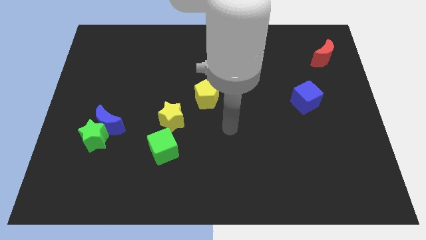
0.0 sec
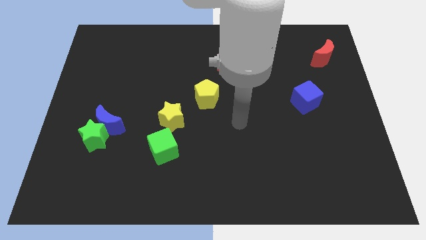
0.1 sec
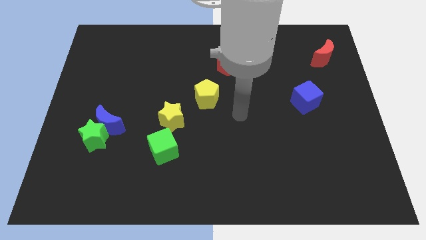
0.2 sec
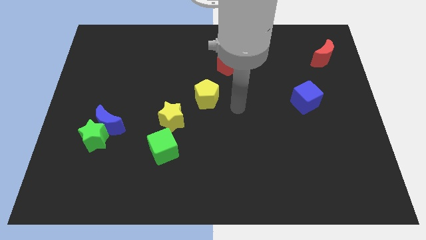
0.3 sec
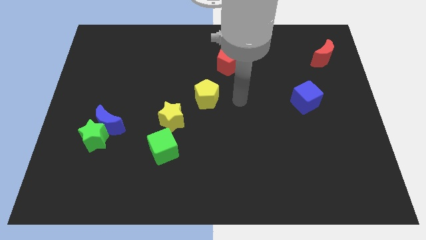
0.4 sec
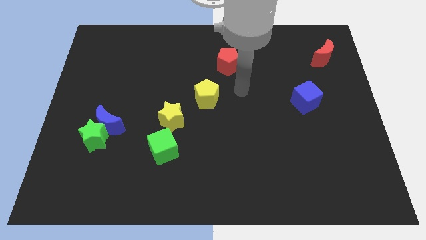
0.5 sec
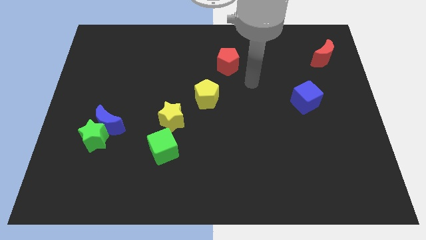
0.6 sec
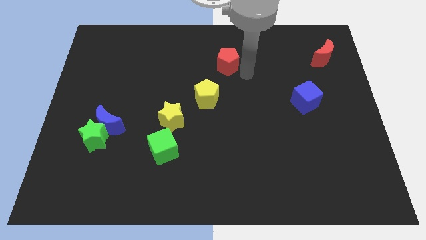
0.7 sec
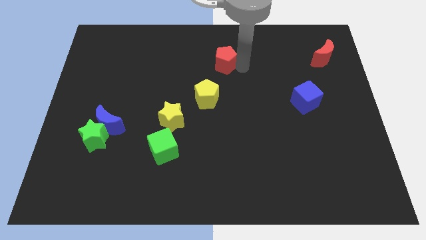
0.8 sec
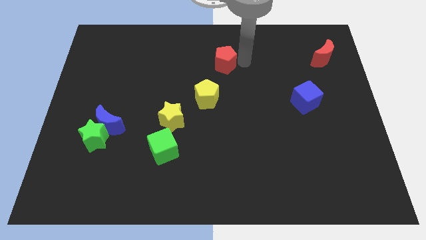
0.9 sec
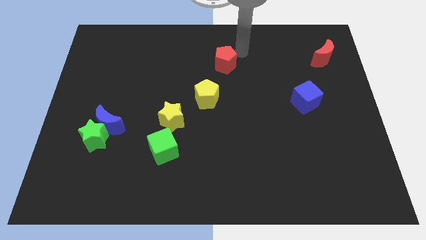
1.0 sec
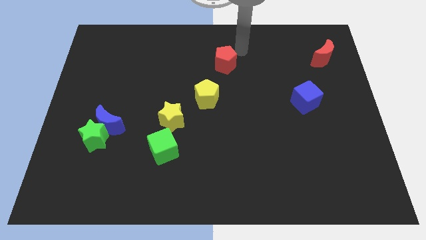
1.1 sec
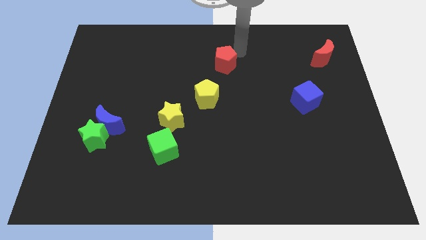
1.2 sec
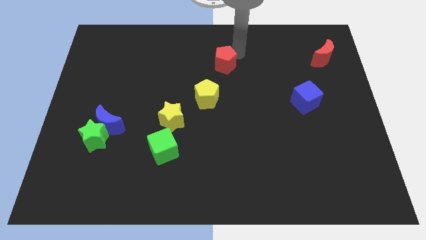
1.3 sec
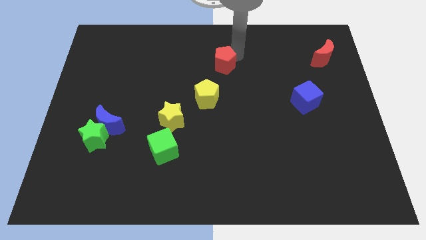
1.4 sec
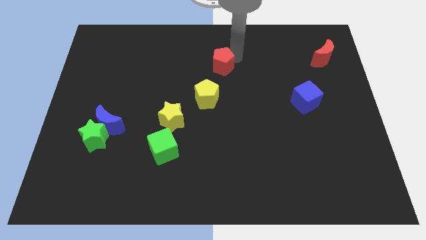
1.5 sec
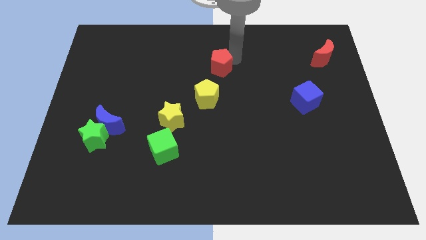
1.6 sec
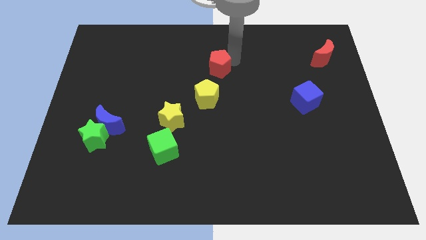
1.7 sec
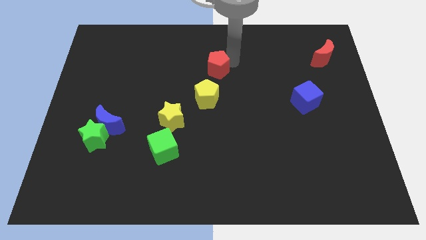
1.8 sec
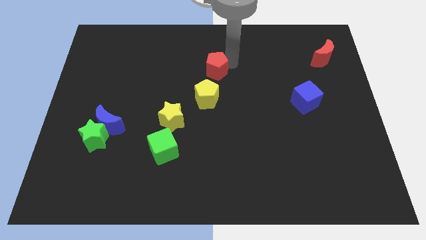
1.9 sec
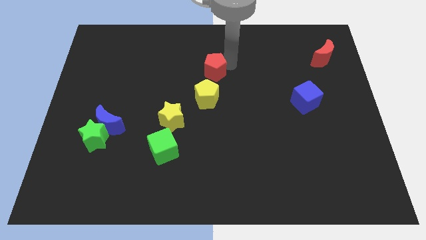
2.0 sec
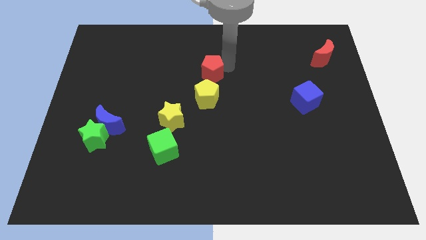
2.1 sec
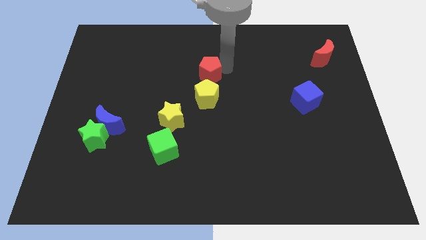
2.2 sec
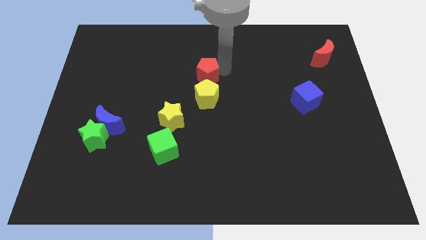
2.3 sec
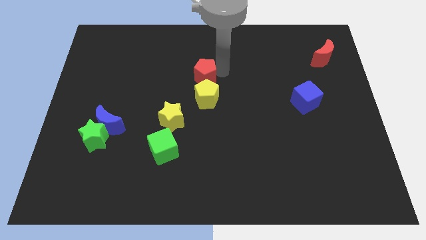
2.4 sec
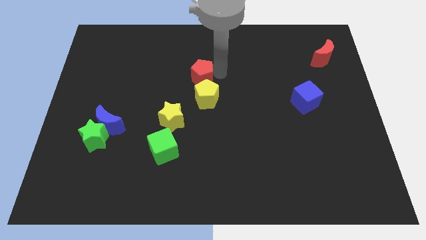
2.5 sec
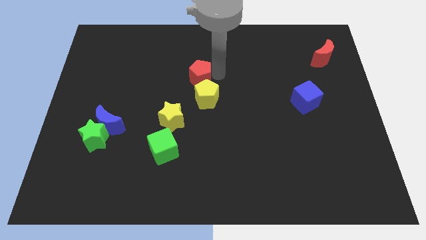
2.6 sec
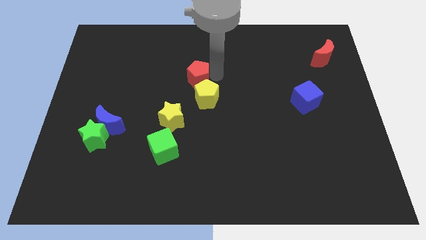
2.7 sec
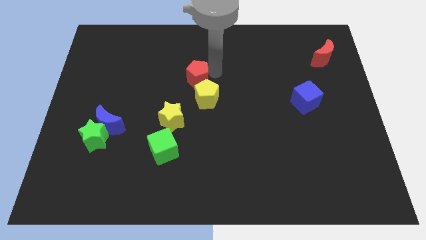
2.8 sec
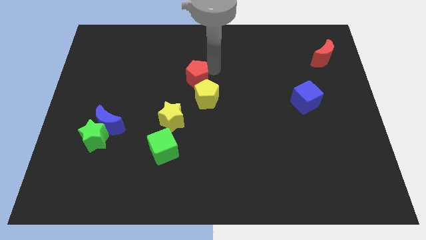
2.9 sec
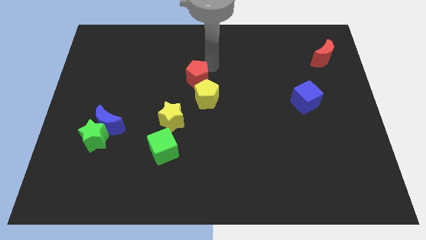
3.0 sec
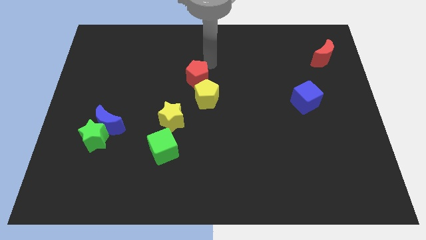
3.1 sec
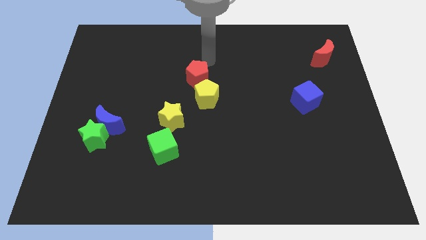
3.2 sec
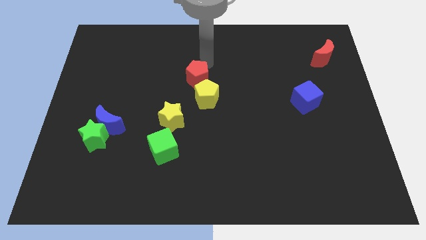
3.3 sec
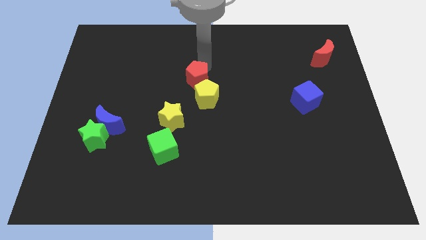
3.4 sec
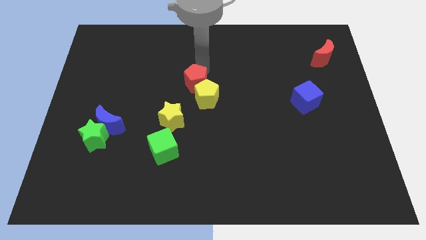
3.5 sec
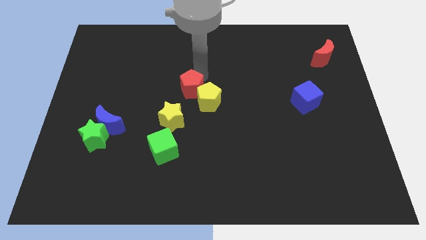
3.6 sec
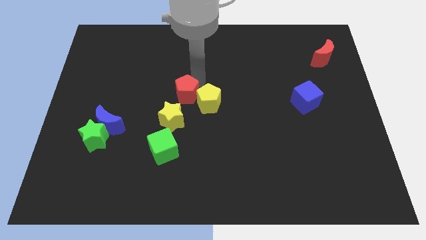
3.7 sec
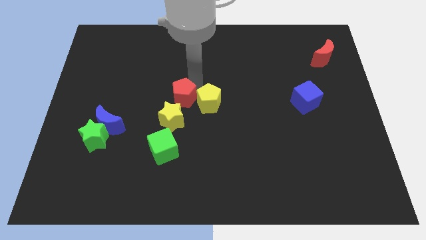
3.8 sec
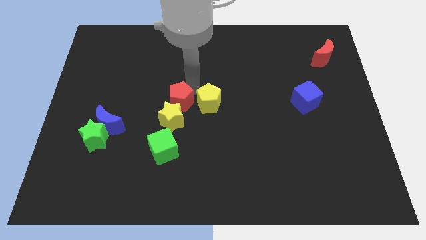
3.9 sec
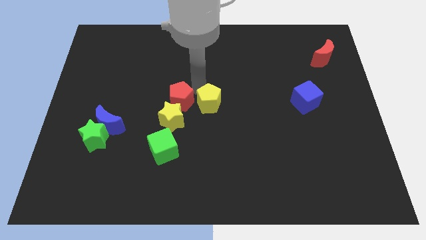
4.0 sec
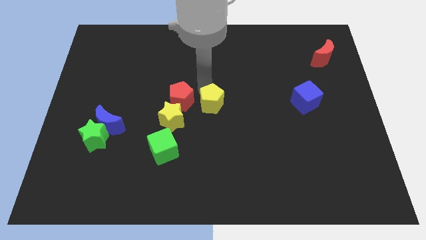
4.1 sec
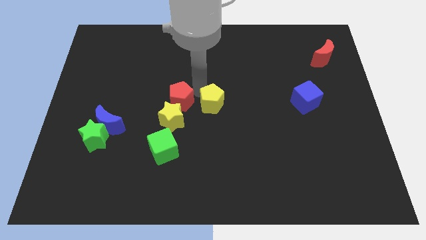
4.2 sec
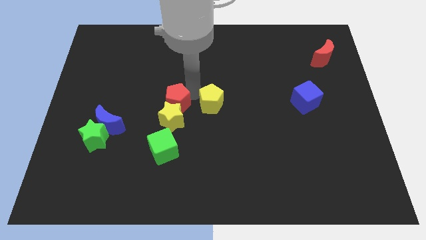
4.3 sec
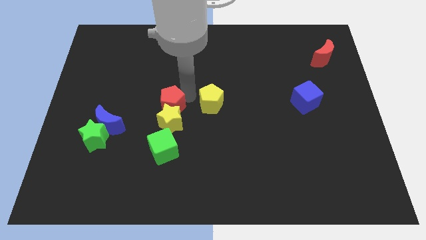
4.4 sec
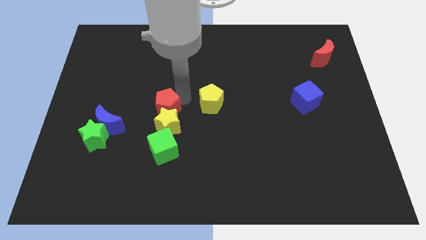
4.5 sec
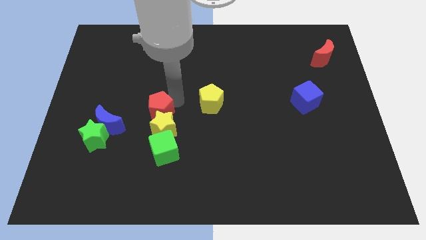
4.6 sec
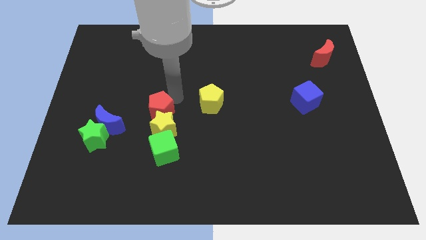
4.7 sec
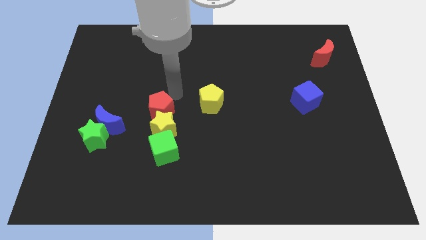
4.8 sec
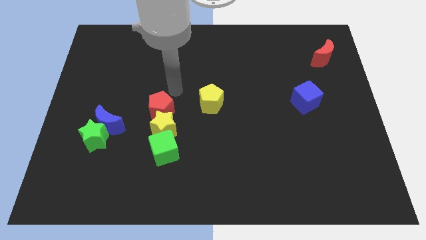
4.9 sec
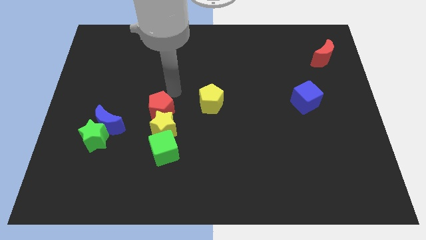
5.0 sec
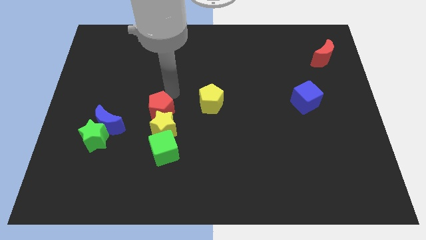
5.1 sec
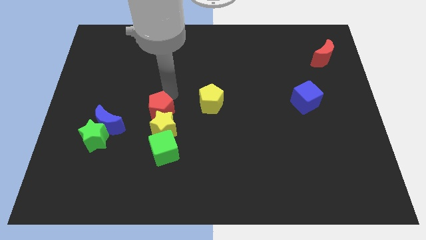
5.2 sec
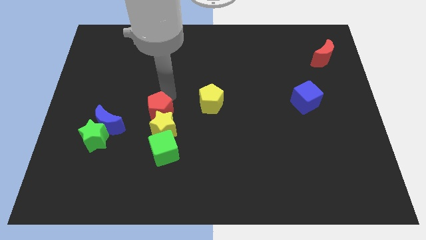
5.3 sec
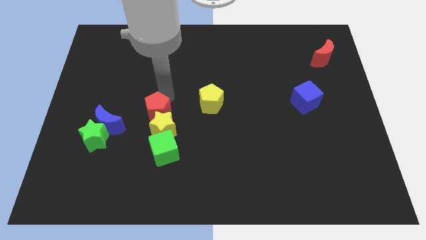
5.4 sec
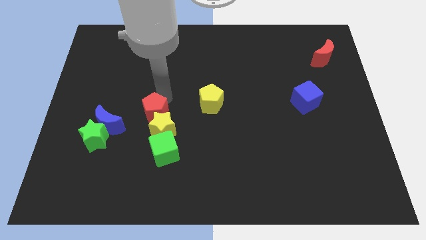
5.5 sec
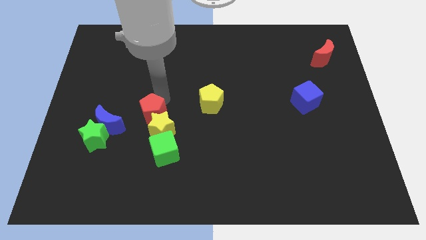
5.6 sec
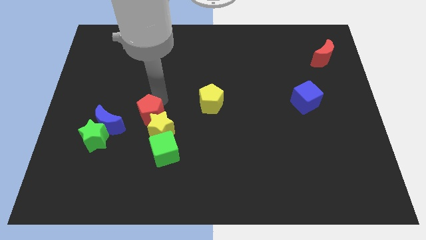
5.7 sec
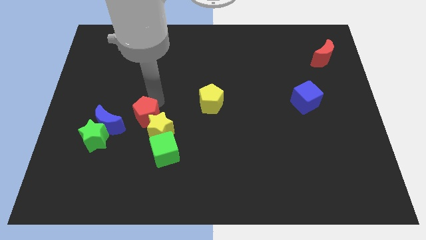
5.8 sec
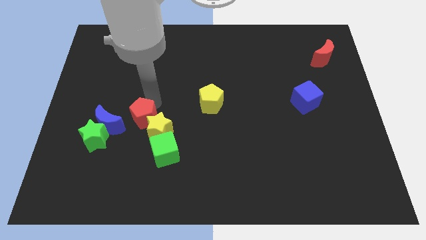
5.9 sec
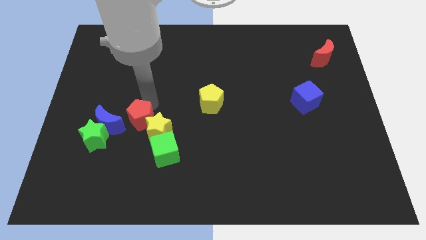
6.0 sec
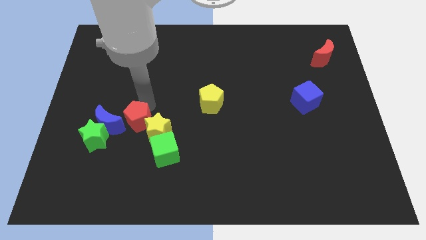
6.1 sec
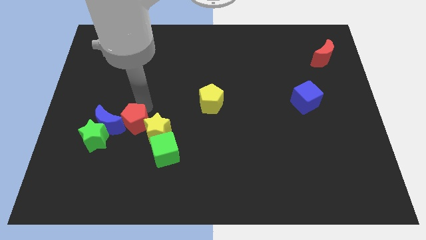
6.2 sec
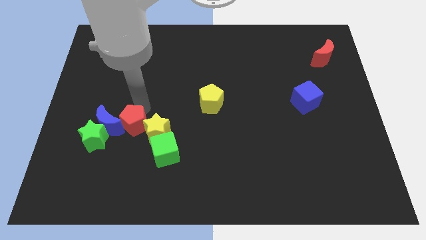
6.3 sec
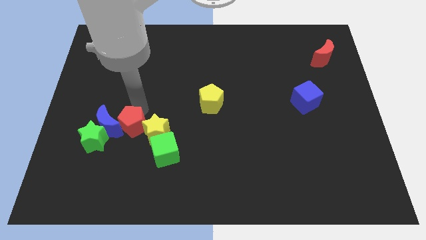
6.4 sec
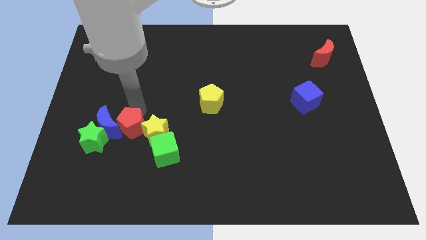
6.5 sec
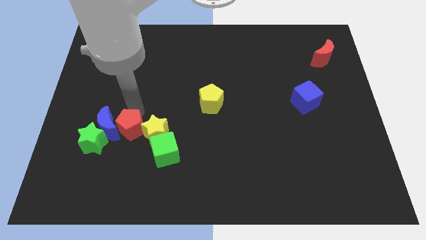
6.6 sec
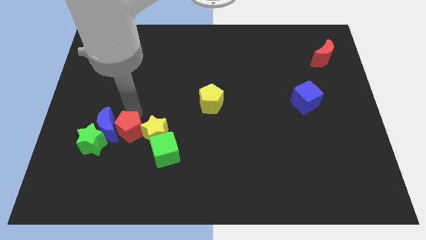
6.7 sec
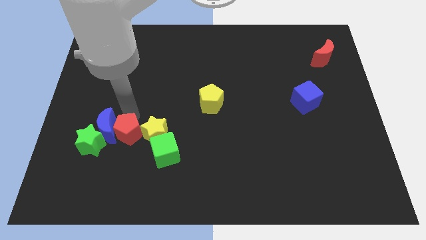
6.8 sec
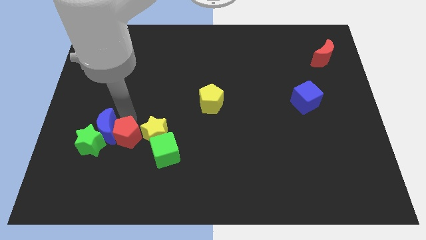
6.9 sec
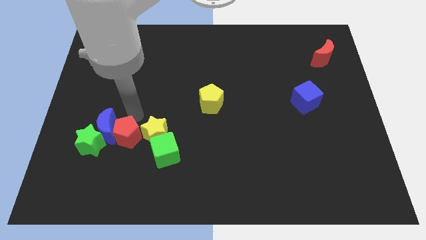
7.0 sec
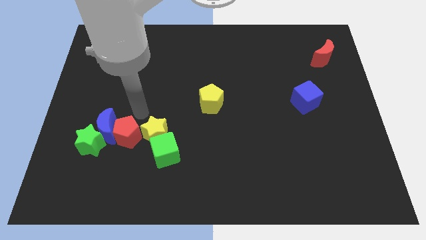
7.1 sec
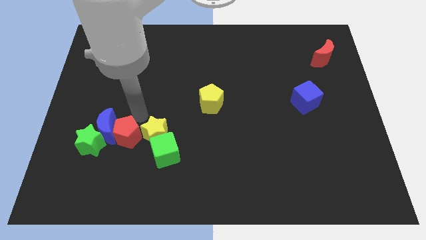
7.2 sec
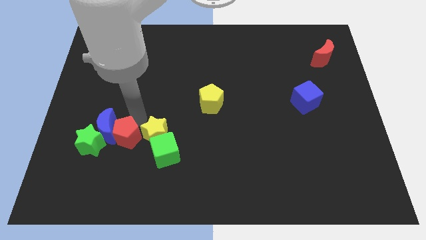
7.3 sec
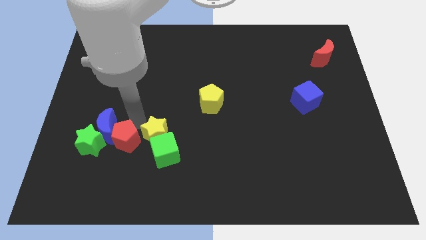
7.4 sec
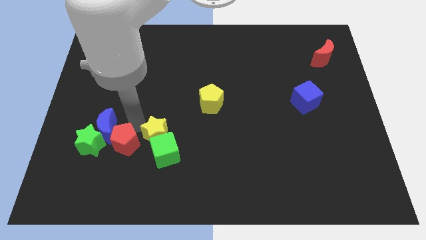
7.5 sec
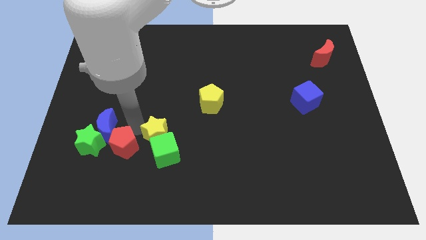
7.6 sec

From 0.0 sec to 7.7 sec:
move the red pentagon to the bottom right side of the green star
